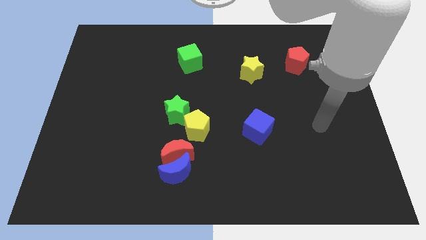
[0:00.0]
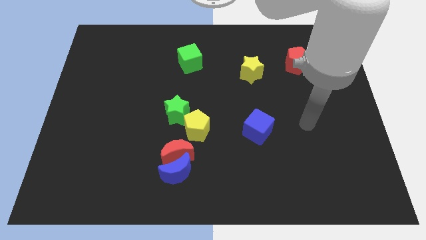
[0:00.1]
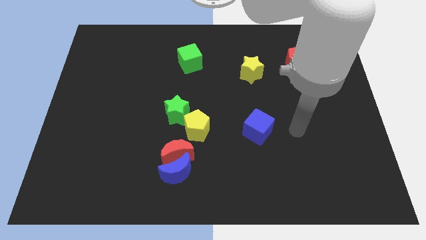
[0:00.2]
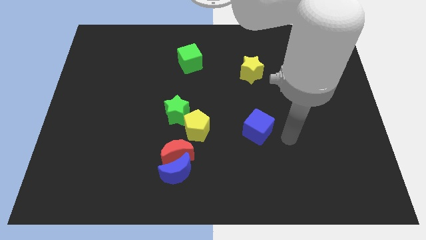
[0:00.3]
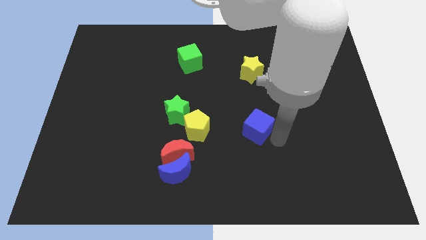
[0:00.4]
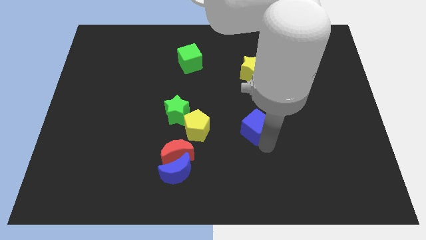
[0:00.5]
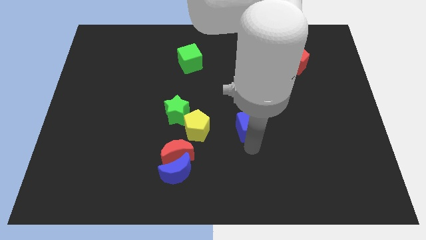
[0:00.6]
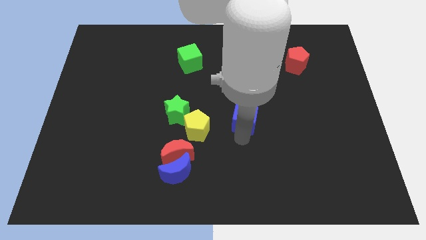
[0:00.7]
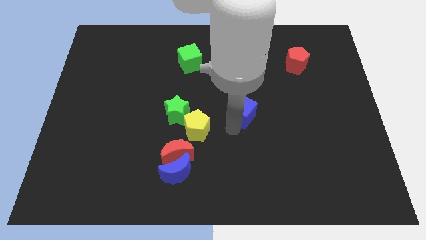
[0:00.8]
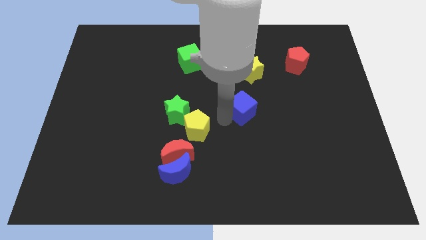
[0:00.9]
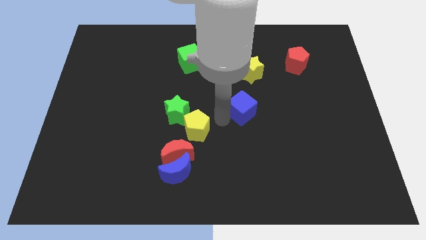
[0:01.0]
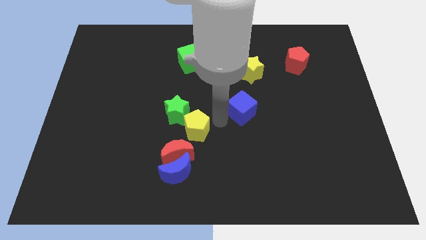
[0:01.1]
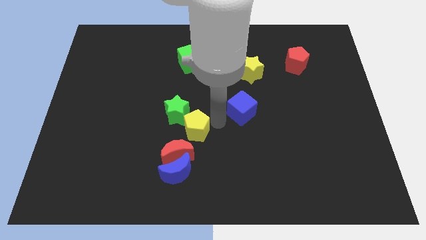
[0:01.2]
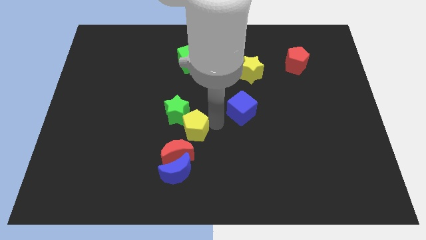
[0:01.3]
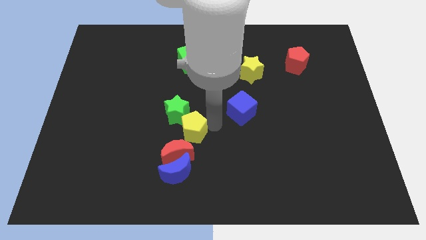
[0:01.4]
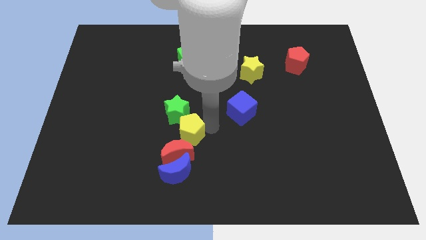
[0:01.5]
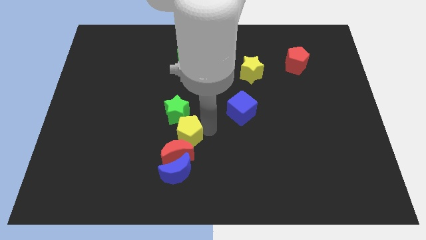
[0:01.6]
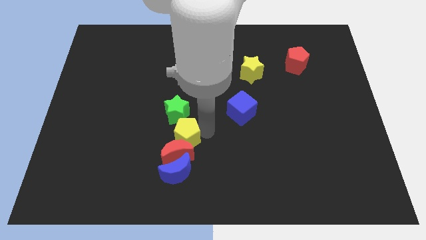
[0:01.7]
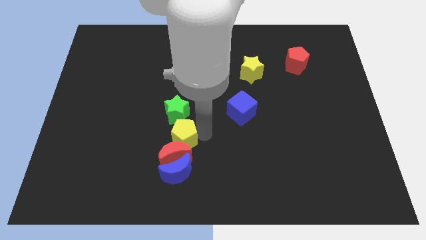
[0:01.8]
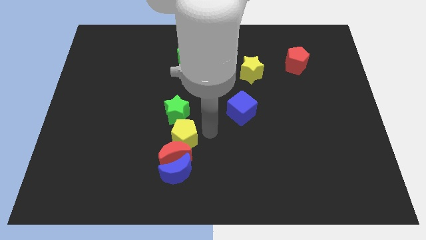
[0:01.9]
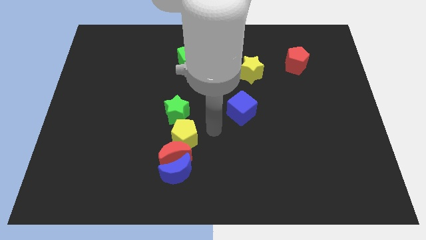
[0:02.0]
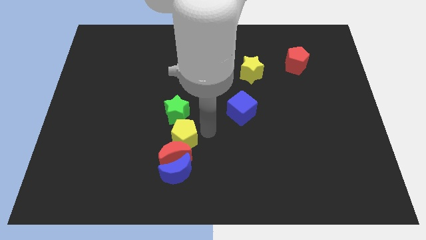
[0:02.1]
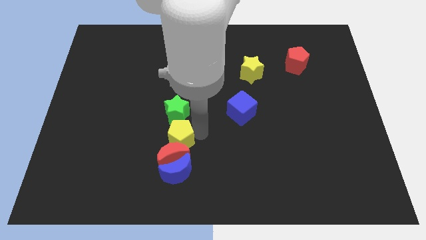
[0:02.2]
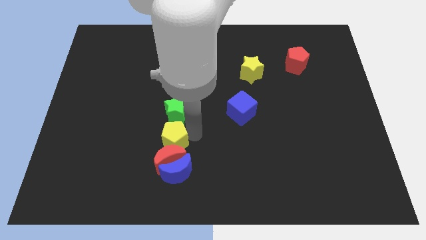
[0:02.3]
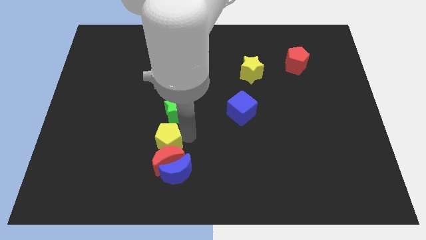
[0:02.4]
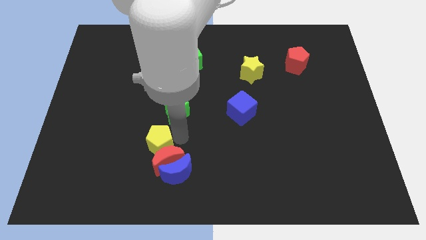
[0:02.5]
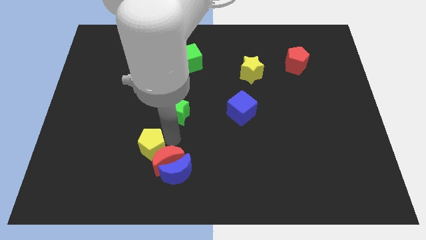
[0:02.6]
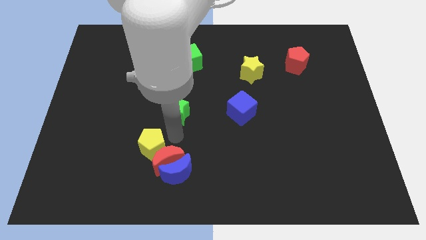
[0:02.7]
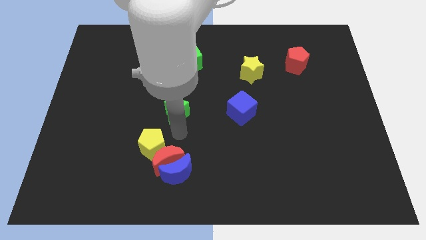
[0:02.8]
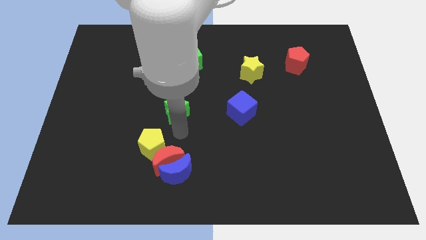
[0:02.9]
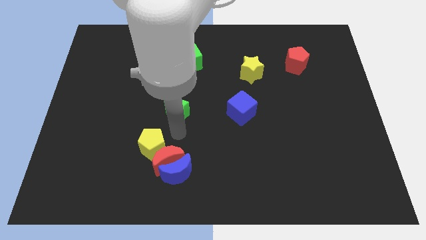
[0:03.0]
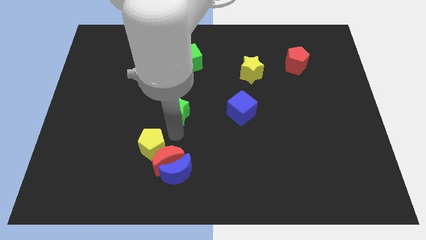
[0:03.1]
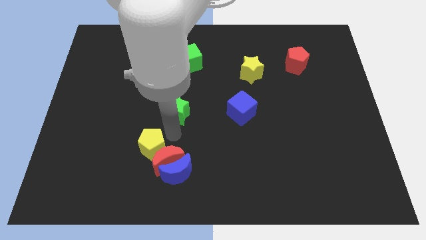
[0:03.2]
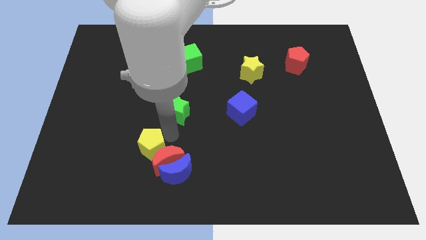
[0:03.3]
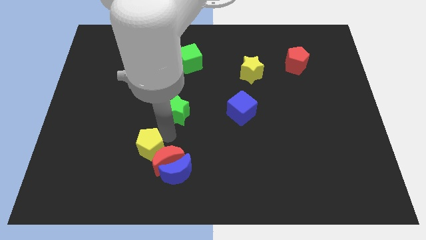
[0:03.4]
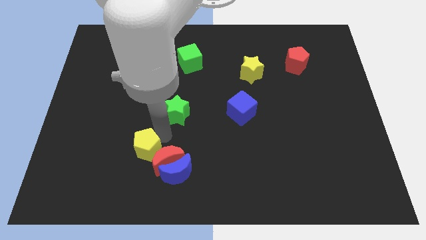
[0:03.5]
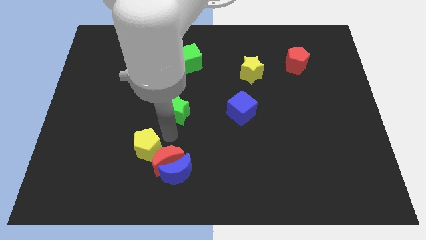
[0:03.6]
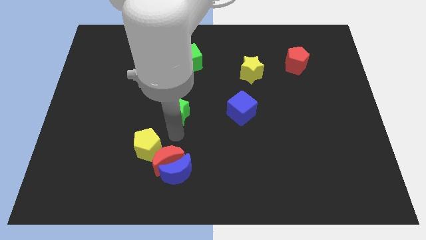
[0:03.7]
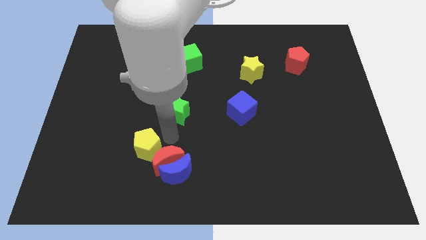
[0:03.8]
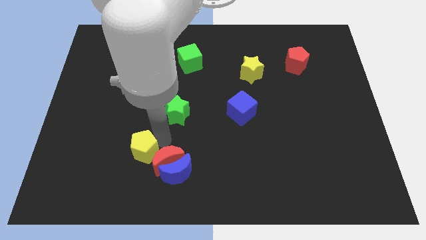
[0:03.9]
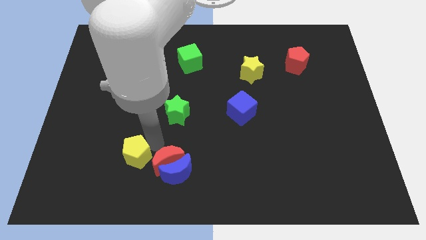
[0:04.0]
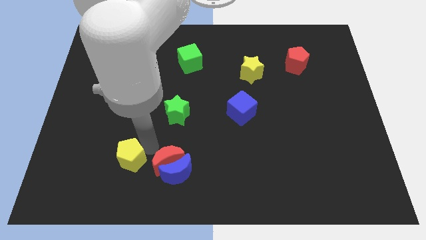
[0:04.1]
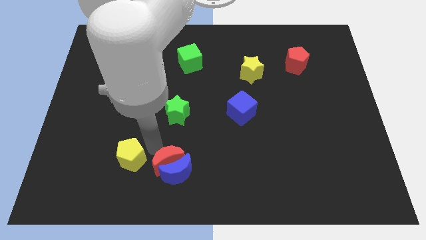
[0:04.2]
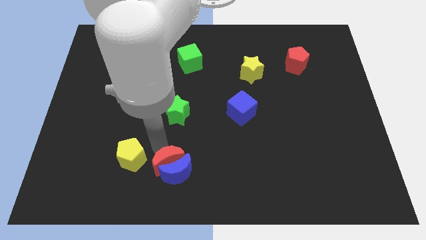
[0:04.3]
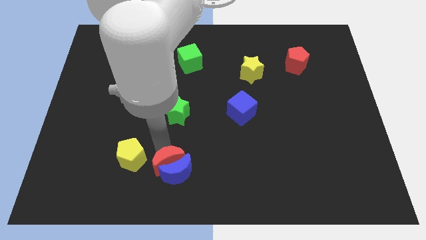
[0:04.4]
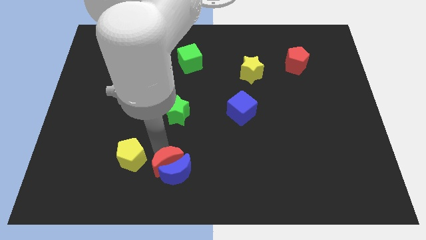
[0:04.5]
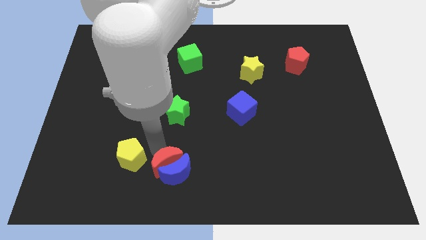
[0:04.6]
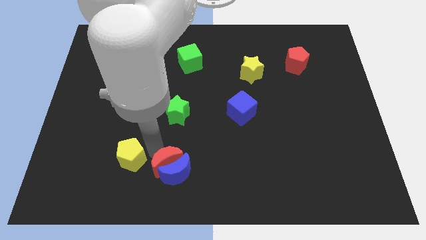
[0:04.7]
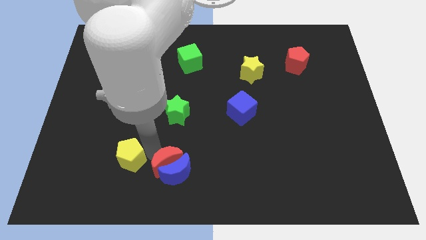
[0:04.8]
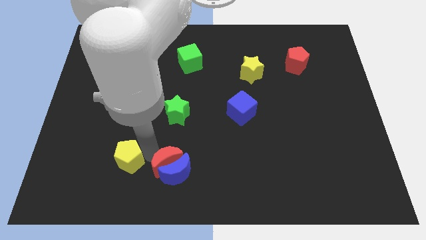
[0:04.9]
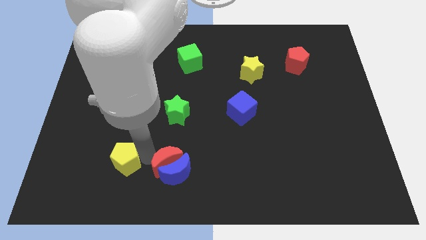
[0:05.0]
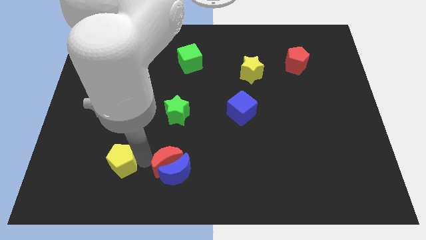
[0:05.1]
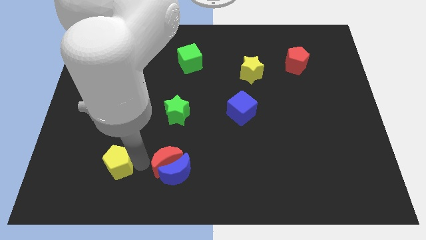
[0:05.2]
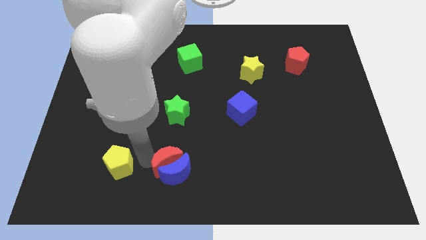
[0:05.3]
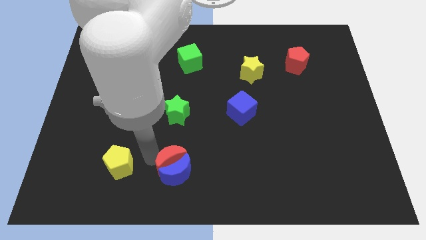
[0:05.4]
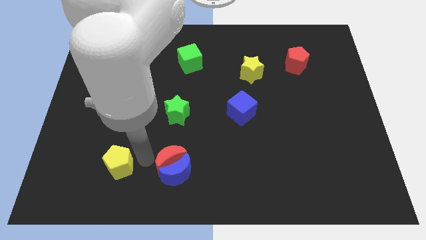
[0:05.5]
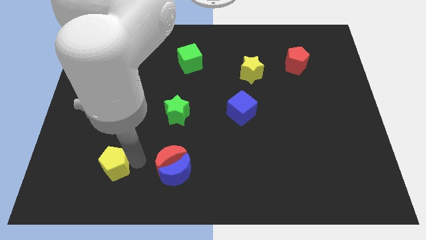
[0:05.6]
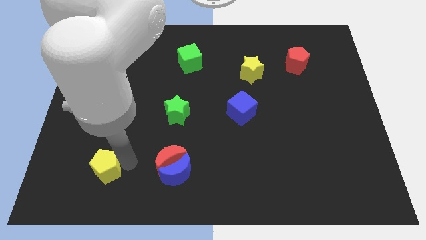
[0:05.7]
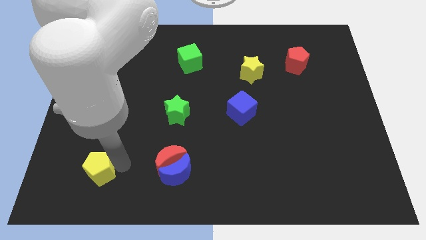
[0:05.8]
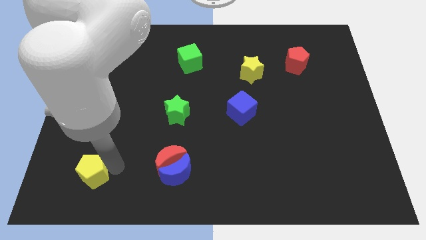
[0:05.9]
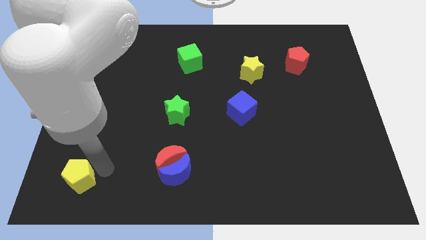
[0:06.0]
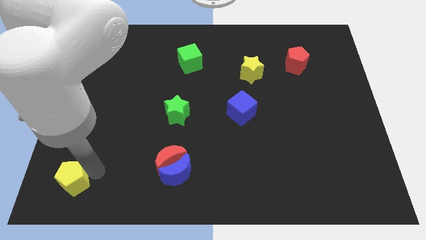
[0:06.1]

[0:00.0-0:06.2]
move the yellow pentagon to the bottom left of the board

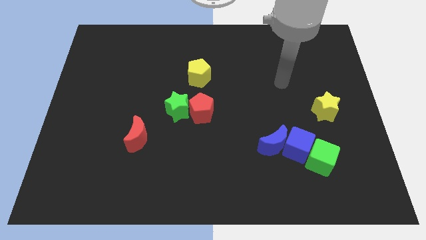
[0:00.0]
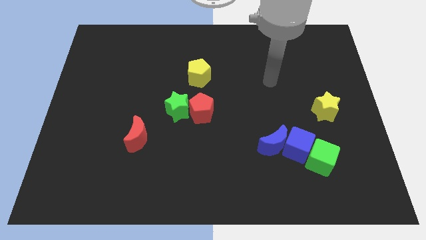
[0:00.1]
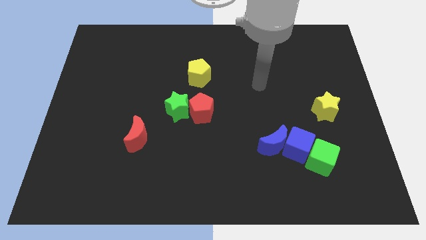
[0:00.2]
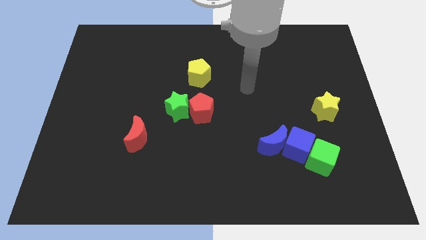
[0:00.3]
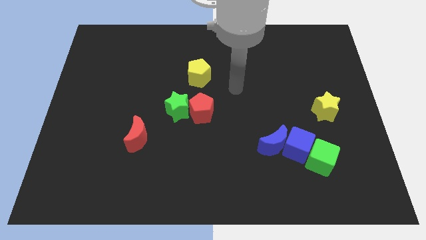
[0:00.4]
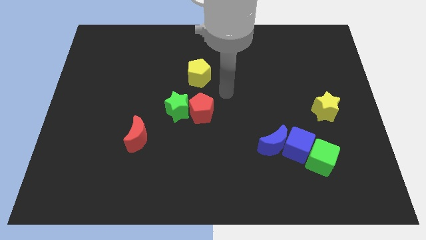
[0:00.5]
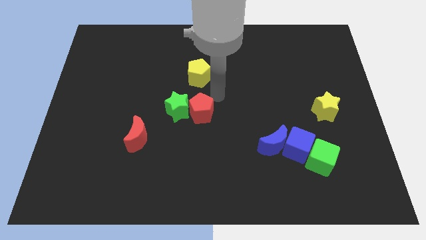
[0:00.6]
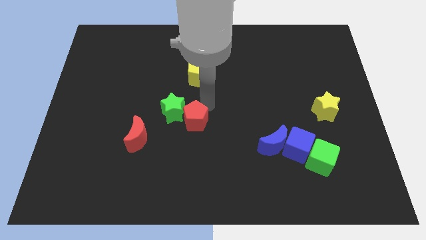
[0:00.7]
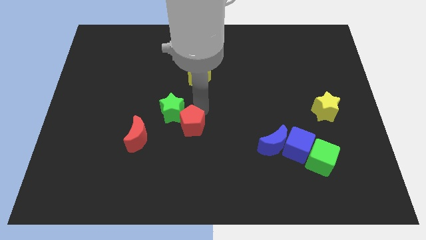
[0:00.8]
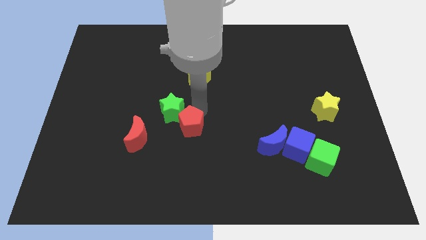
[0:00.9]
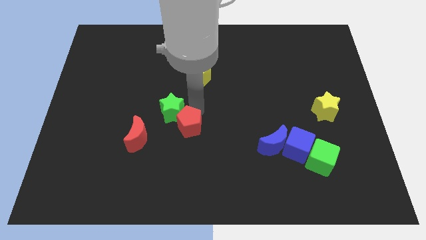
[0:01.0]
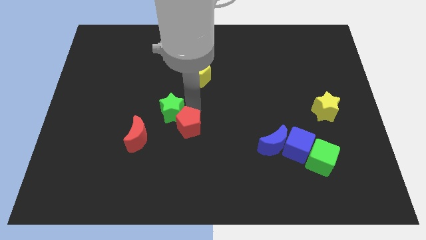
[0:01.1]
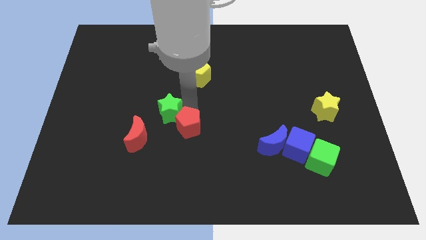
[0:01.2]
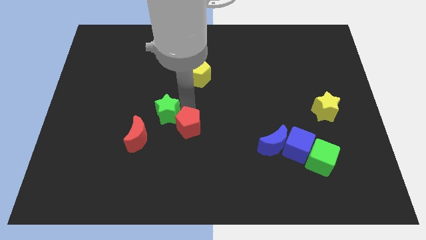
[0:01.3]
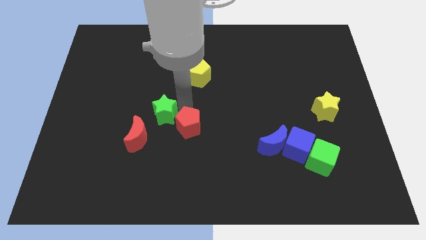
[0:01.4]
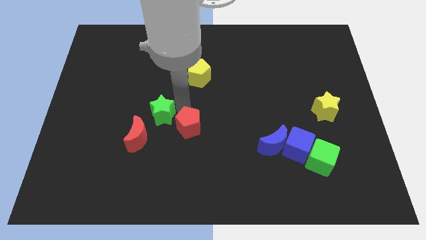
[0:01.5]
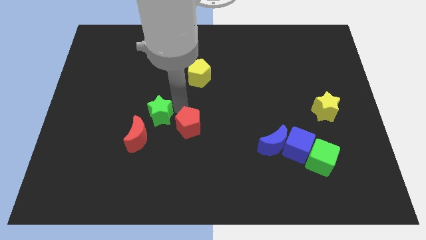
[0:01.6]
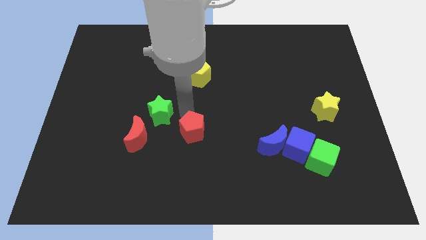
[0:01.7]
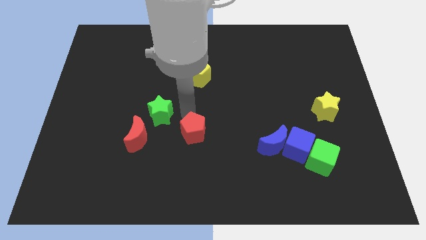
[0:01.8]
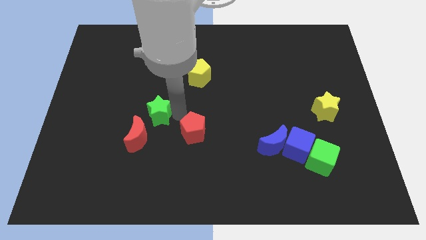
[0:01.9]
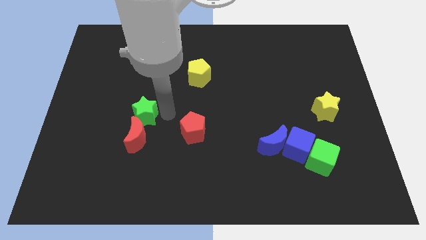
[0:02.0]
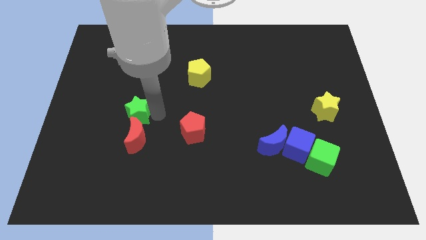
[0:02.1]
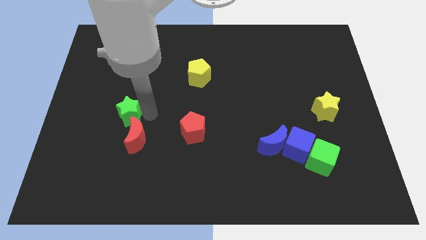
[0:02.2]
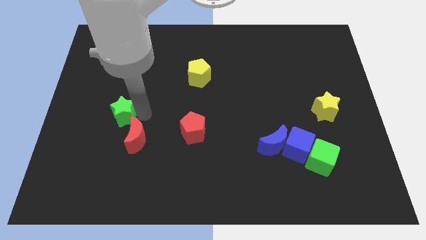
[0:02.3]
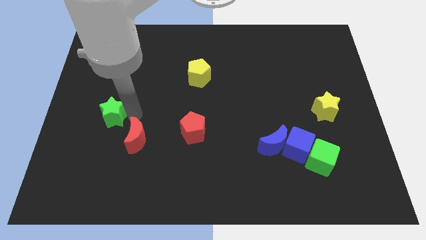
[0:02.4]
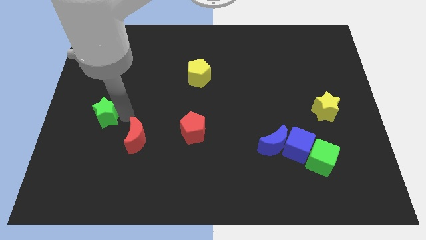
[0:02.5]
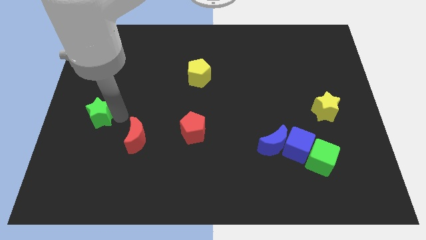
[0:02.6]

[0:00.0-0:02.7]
slide the green star to the left side
